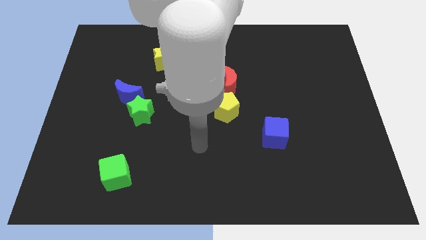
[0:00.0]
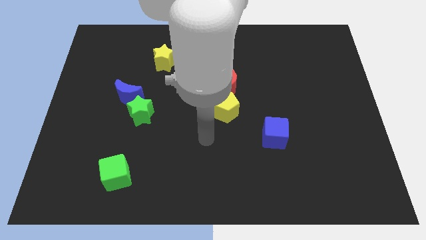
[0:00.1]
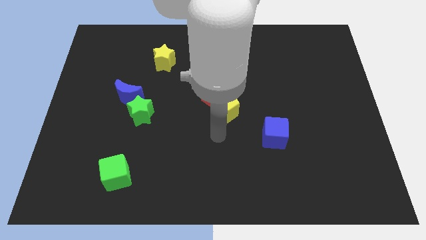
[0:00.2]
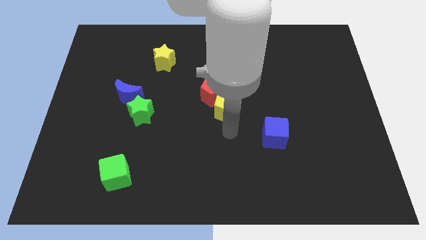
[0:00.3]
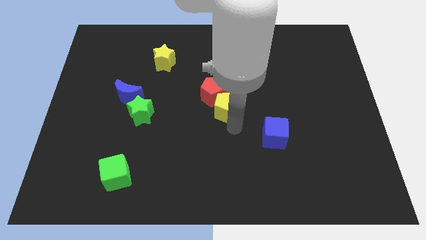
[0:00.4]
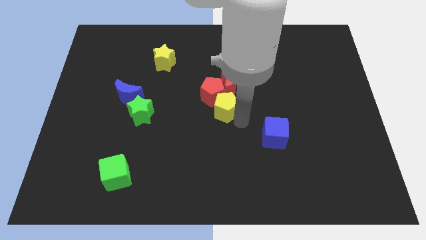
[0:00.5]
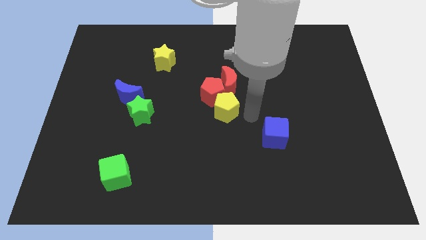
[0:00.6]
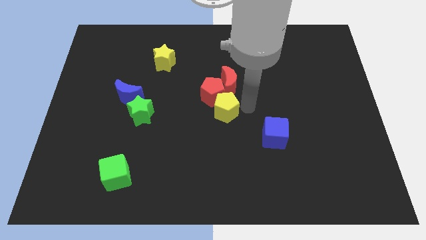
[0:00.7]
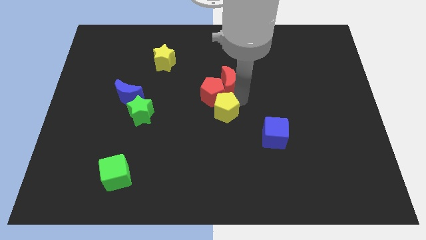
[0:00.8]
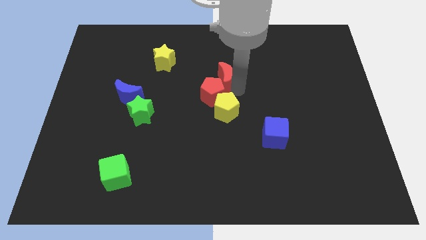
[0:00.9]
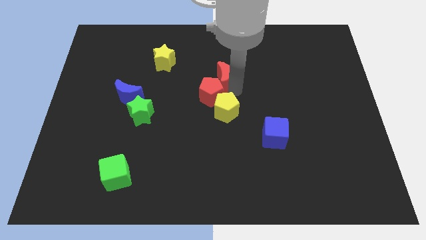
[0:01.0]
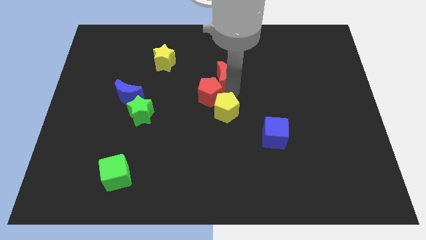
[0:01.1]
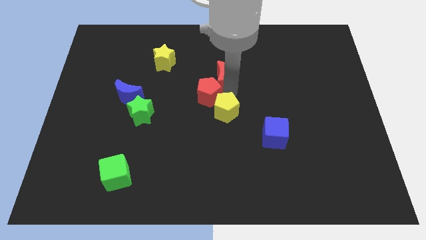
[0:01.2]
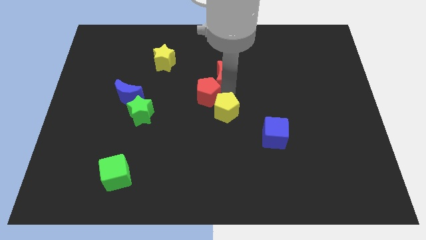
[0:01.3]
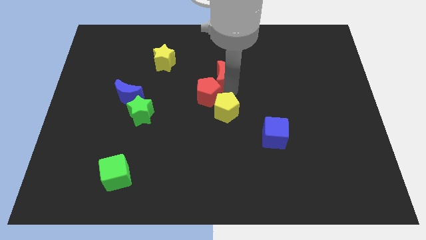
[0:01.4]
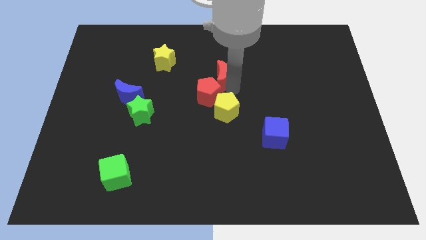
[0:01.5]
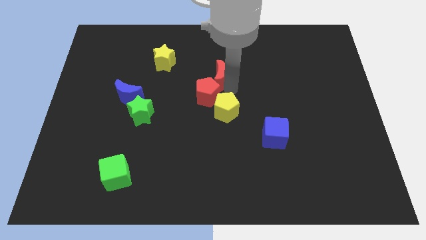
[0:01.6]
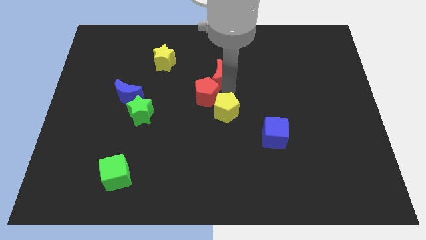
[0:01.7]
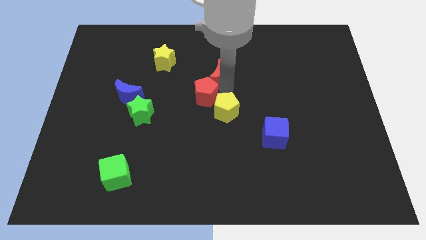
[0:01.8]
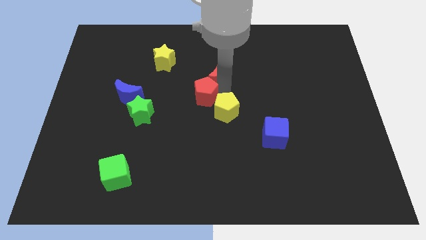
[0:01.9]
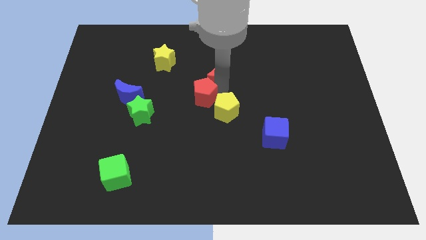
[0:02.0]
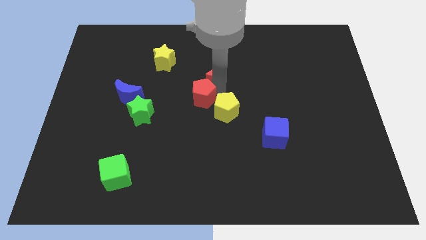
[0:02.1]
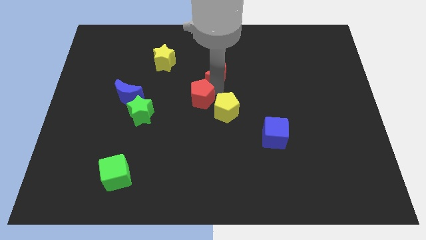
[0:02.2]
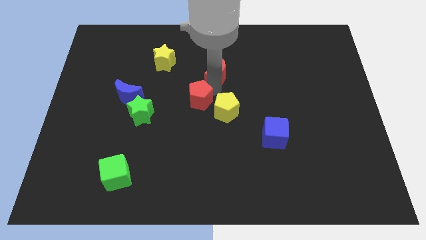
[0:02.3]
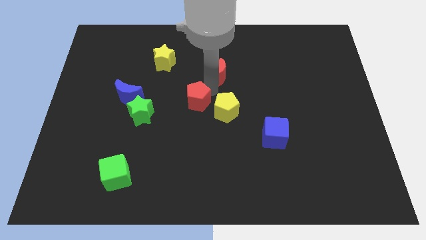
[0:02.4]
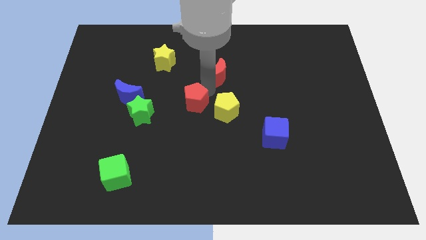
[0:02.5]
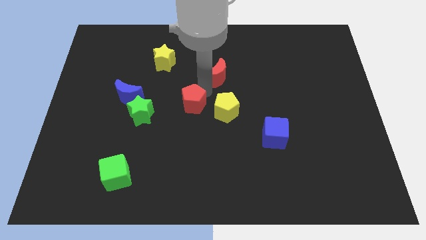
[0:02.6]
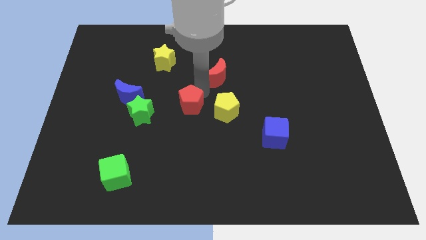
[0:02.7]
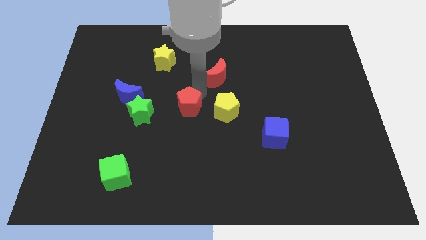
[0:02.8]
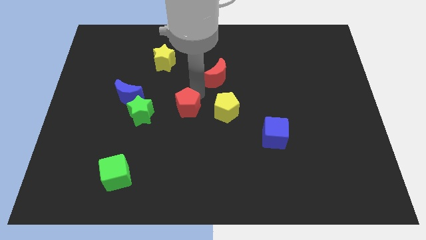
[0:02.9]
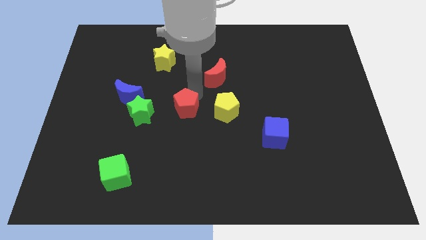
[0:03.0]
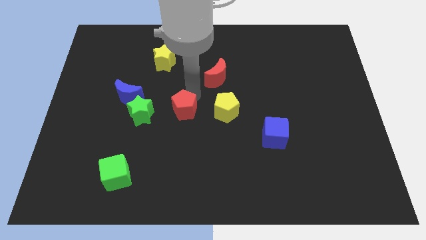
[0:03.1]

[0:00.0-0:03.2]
move the red pentagon away from the red moon and yellow pentagon

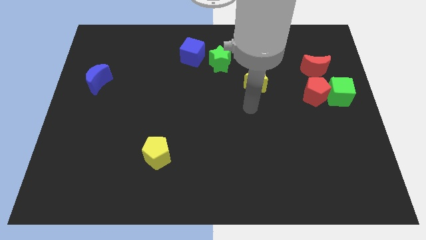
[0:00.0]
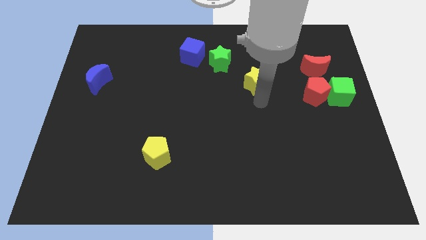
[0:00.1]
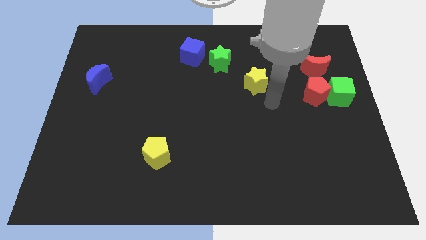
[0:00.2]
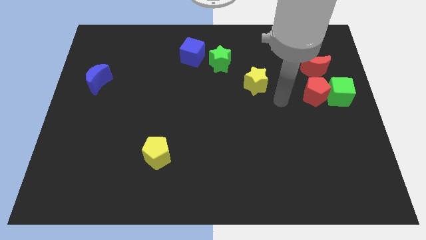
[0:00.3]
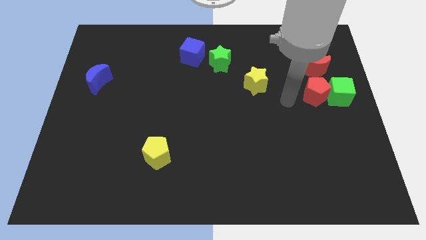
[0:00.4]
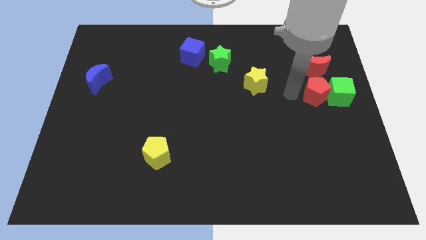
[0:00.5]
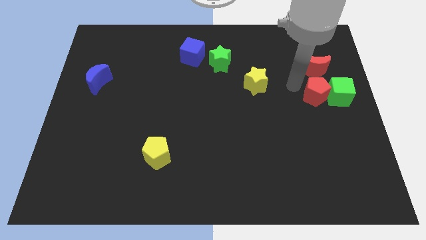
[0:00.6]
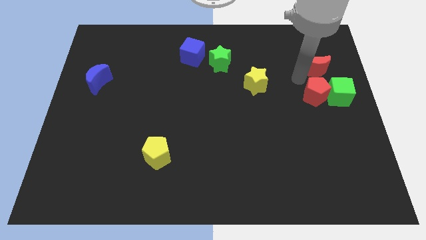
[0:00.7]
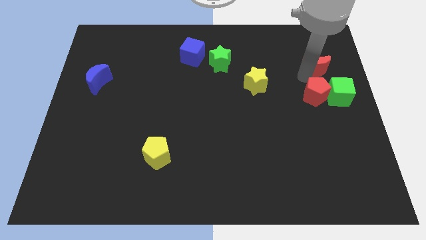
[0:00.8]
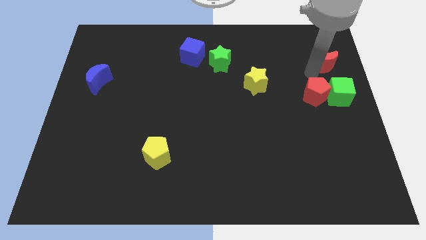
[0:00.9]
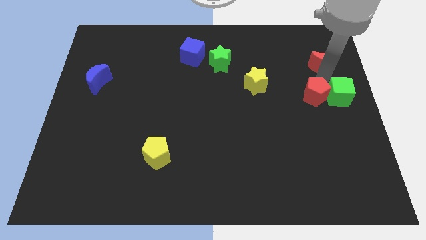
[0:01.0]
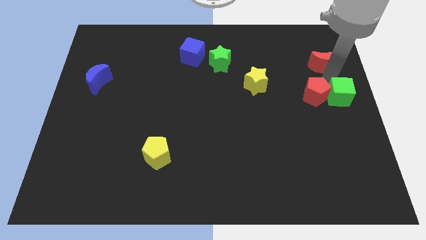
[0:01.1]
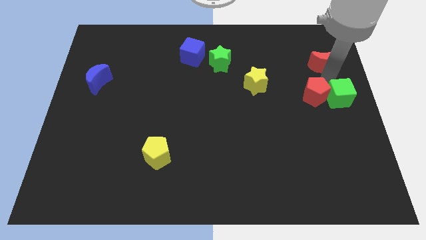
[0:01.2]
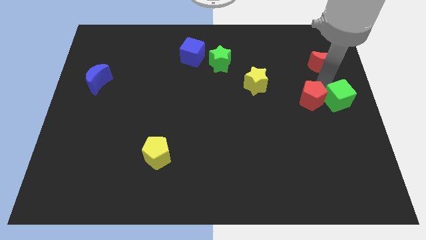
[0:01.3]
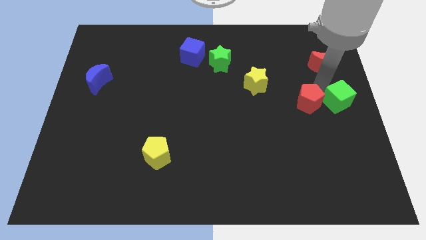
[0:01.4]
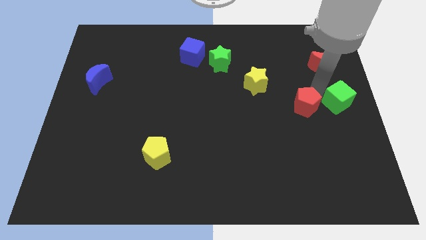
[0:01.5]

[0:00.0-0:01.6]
pull the red pentagon apart from the green cube and red moon

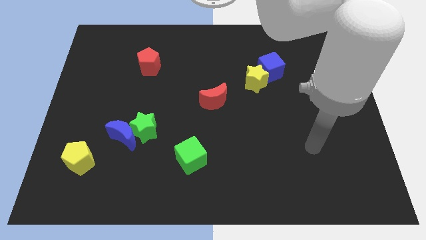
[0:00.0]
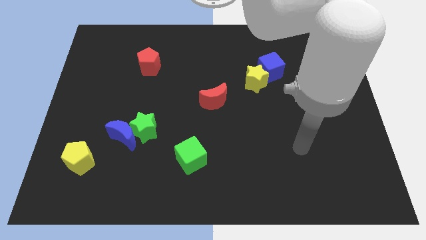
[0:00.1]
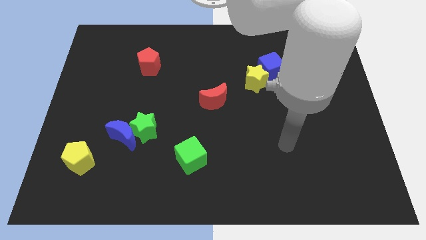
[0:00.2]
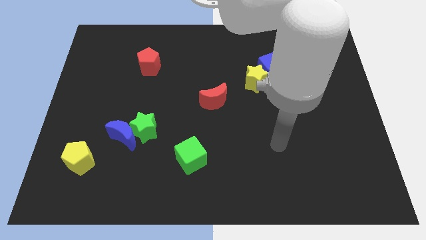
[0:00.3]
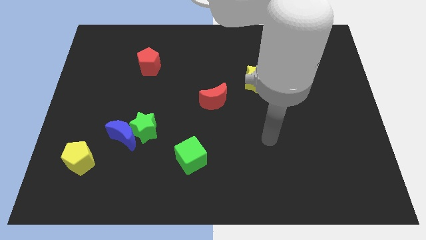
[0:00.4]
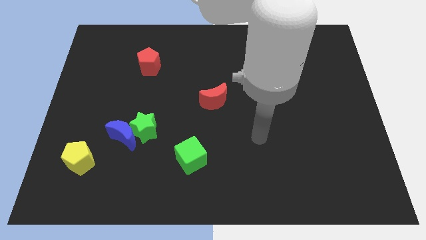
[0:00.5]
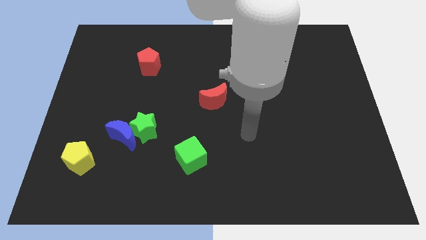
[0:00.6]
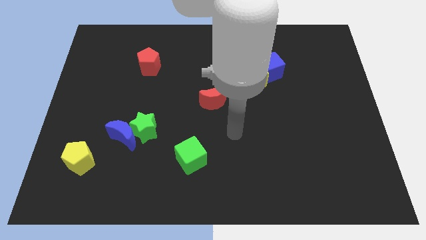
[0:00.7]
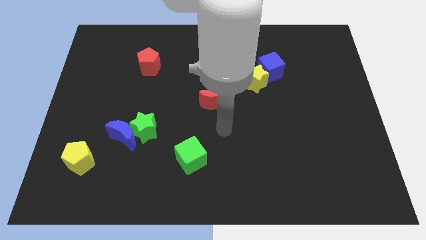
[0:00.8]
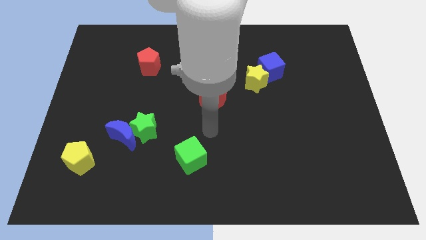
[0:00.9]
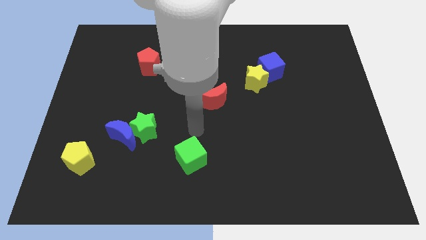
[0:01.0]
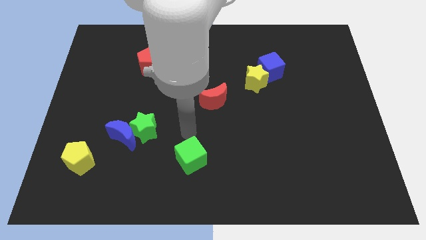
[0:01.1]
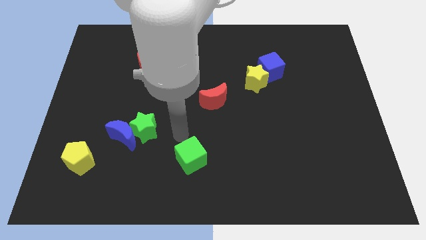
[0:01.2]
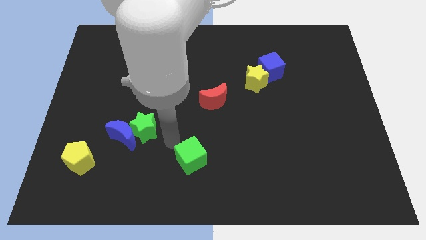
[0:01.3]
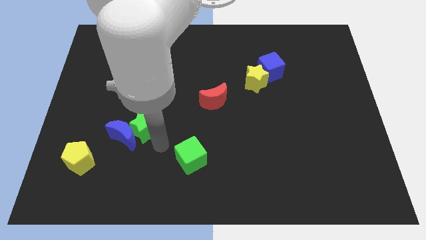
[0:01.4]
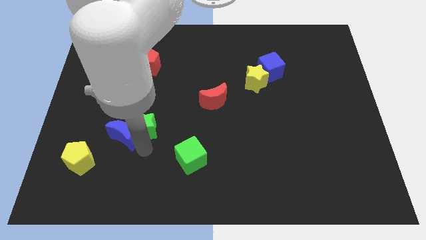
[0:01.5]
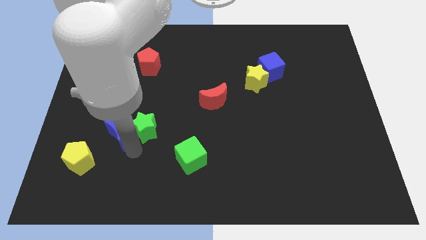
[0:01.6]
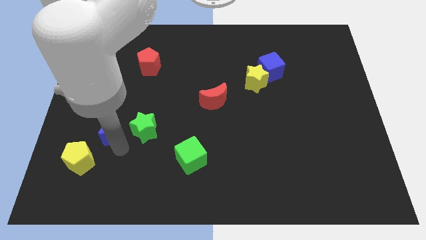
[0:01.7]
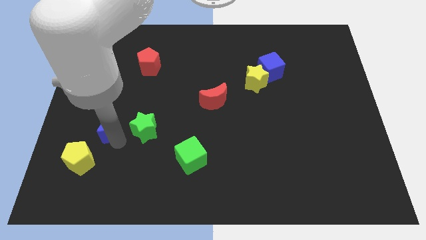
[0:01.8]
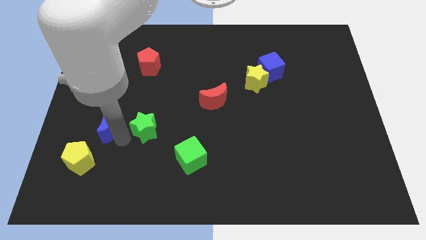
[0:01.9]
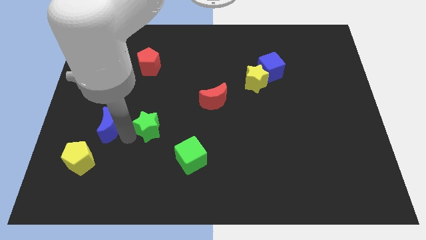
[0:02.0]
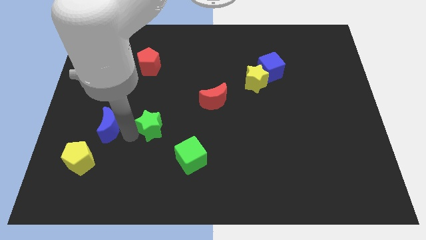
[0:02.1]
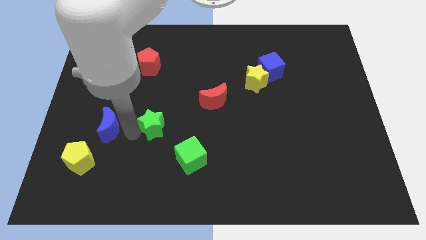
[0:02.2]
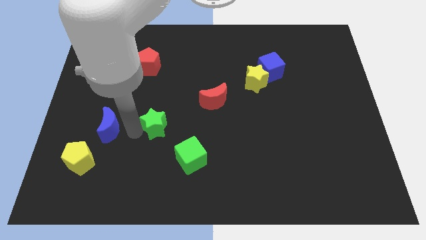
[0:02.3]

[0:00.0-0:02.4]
pull the green star apart from the blue moon

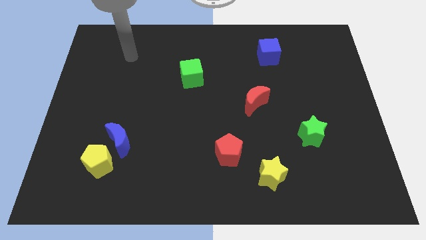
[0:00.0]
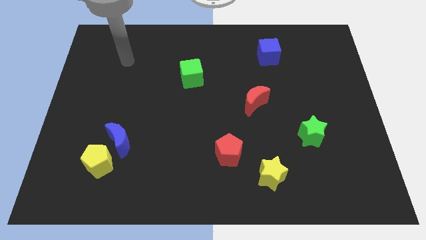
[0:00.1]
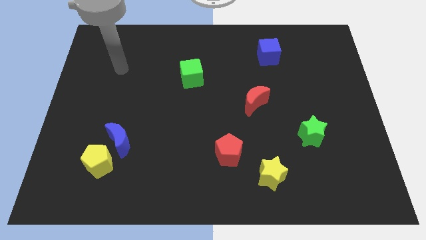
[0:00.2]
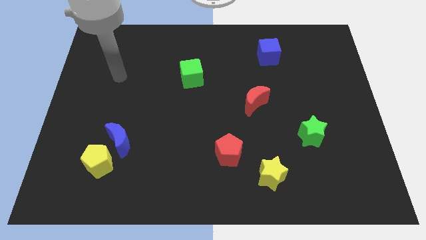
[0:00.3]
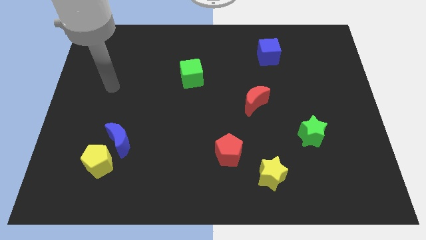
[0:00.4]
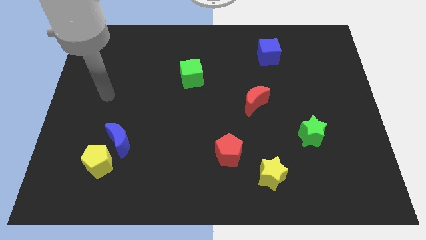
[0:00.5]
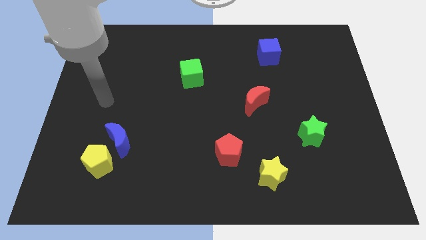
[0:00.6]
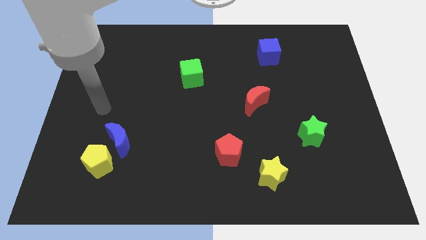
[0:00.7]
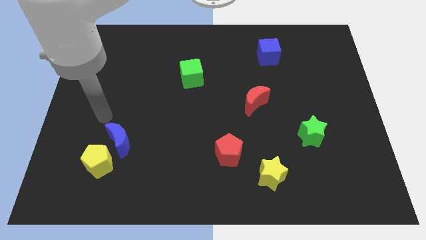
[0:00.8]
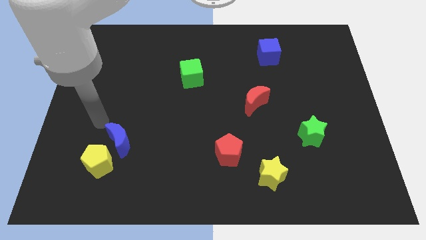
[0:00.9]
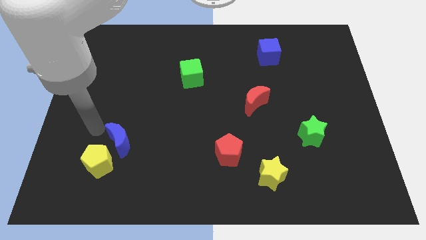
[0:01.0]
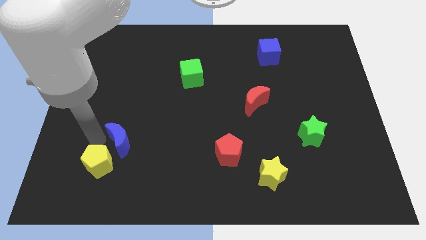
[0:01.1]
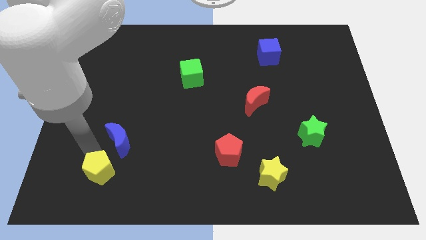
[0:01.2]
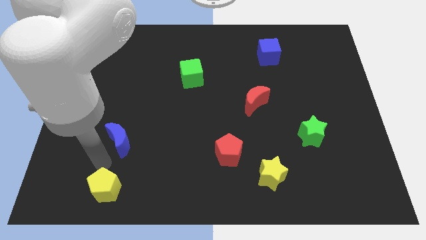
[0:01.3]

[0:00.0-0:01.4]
pull the blue moon apart from the yellow pentagon

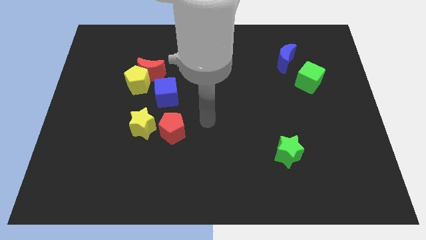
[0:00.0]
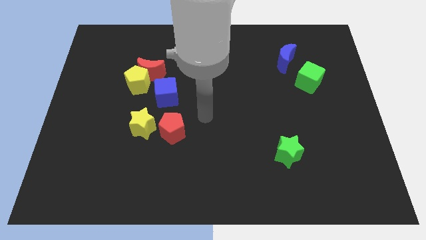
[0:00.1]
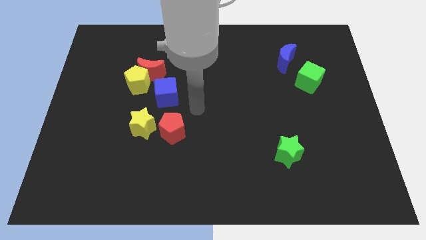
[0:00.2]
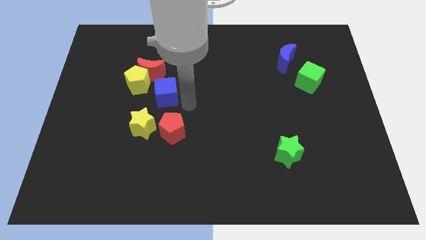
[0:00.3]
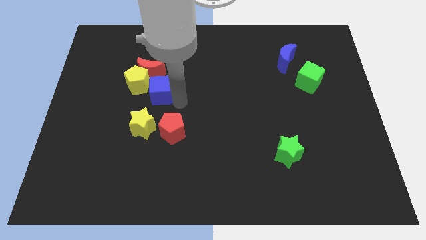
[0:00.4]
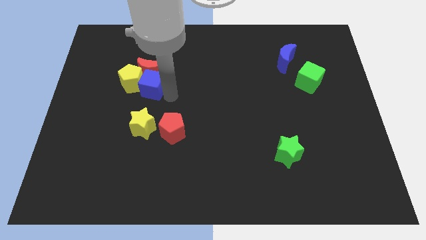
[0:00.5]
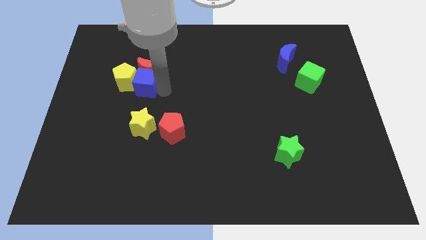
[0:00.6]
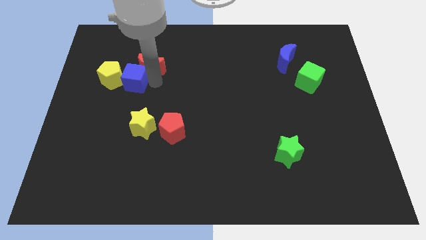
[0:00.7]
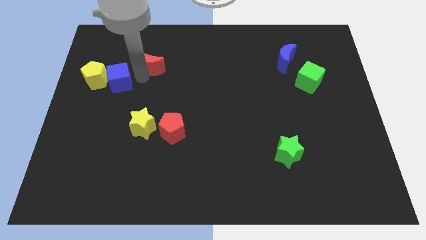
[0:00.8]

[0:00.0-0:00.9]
separate the yellow pentagon from the red moon and blue cube
